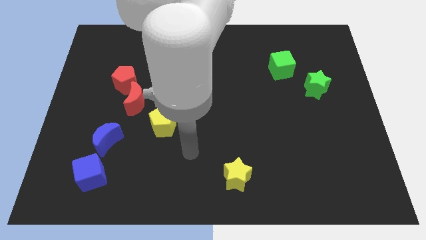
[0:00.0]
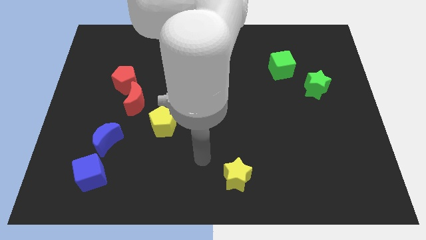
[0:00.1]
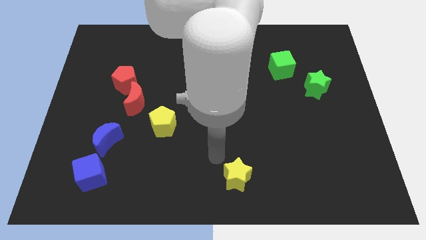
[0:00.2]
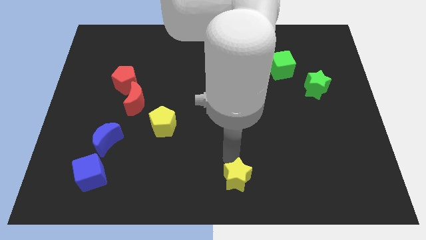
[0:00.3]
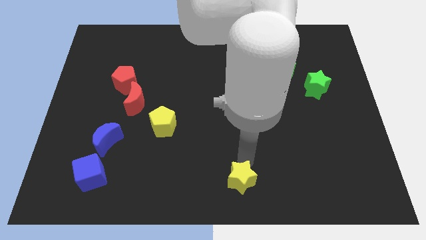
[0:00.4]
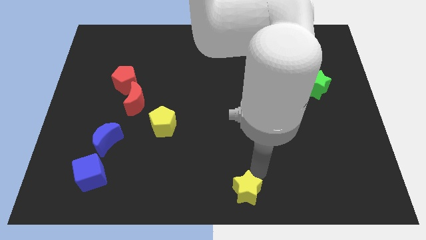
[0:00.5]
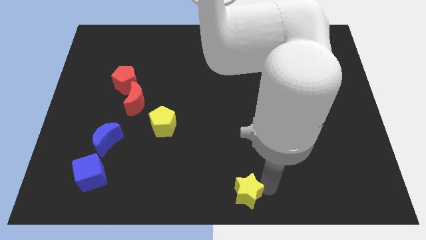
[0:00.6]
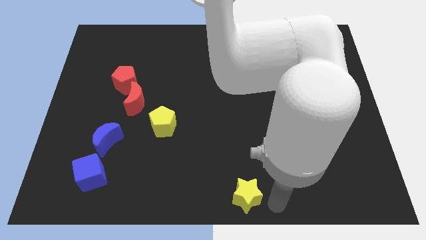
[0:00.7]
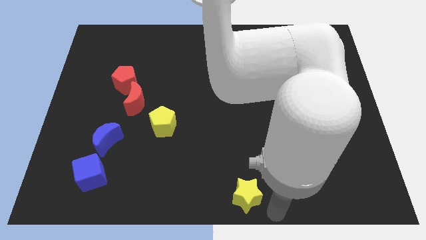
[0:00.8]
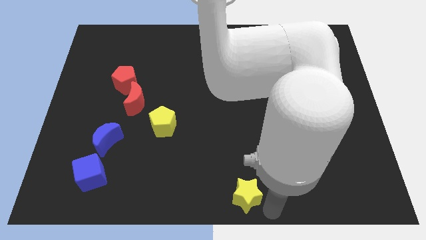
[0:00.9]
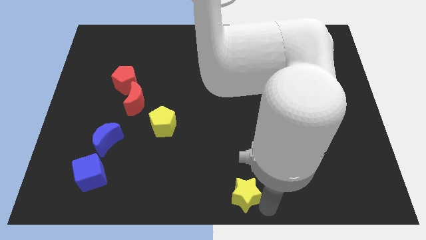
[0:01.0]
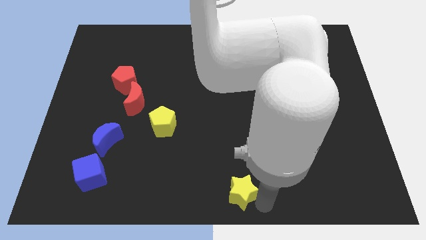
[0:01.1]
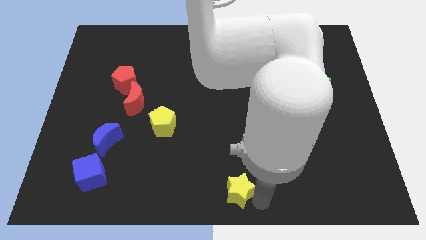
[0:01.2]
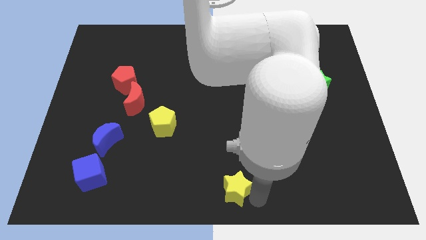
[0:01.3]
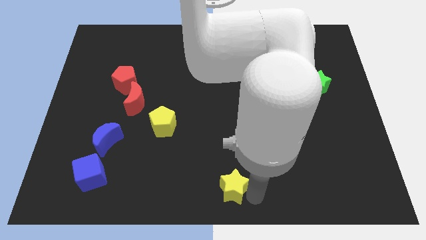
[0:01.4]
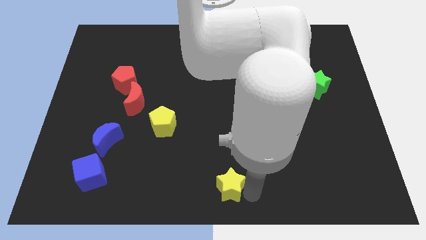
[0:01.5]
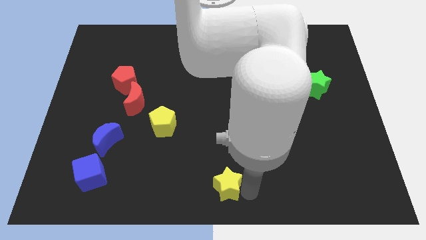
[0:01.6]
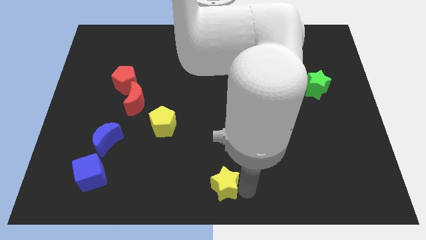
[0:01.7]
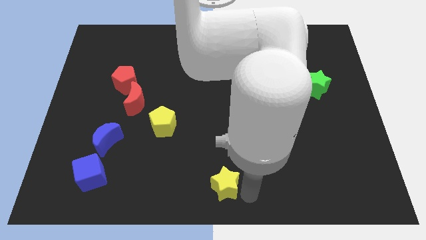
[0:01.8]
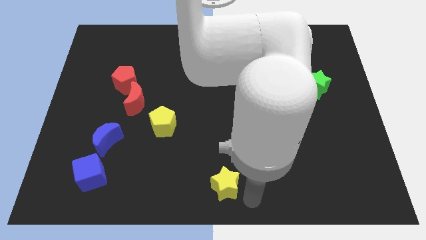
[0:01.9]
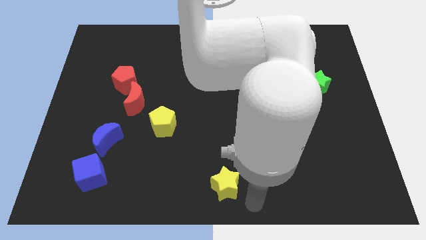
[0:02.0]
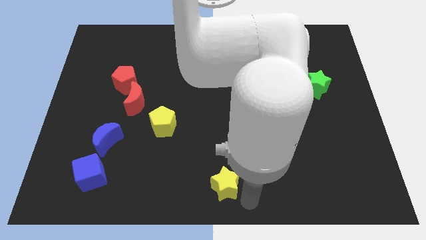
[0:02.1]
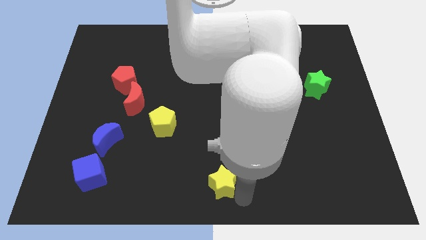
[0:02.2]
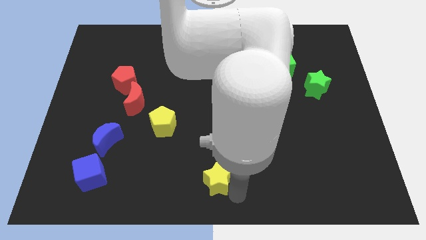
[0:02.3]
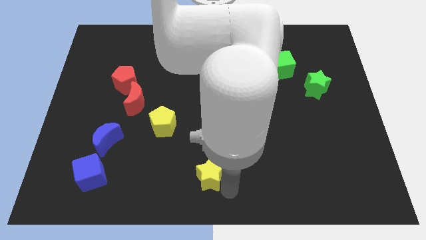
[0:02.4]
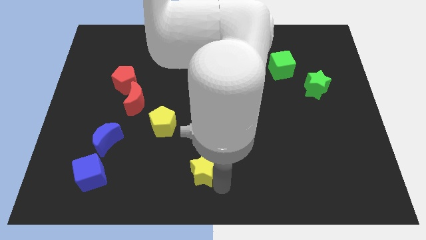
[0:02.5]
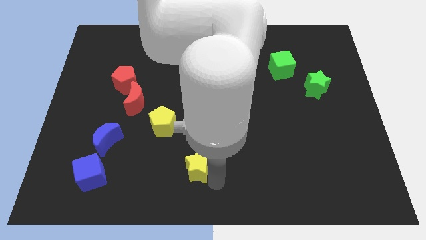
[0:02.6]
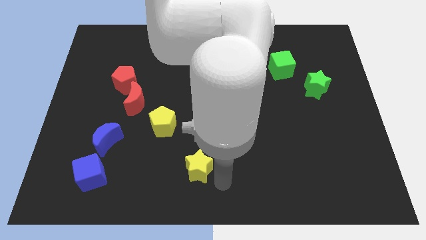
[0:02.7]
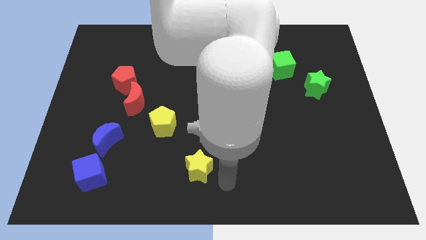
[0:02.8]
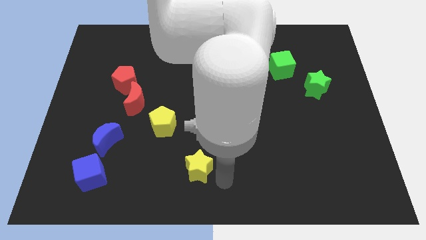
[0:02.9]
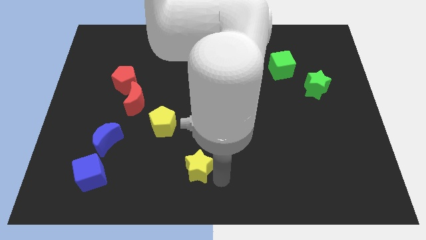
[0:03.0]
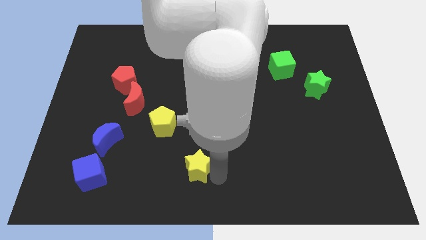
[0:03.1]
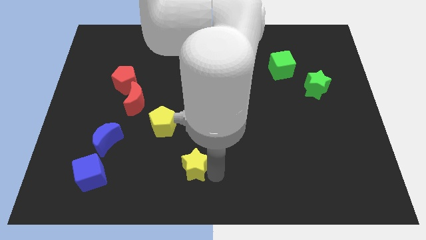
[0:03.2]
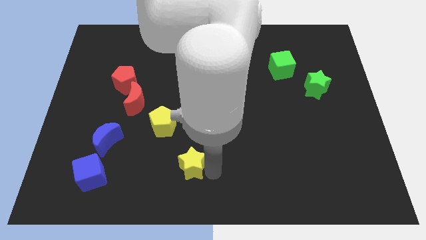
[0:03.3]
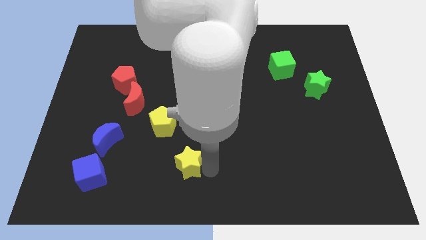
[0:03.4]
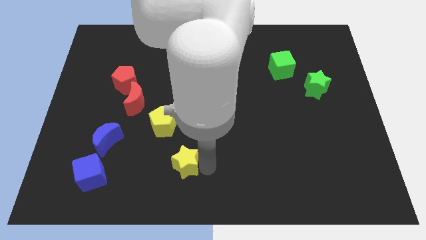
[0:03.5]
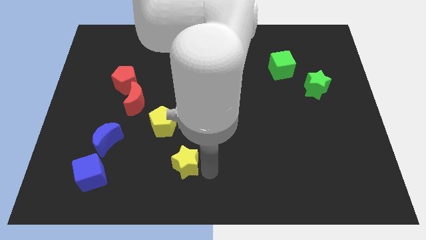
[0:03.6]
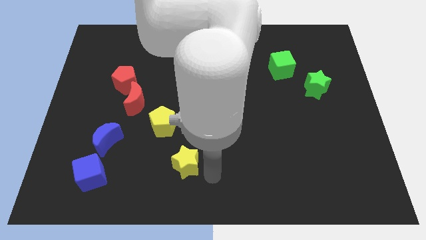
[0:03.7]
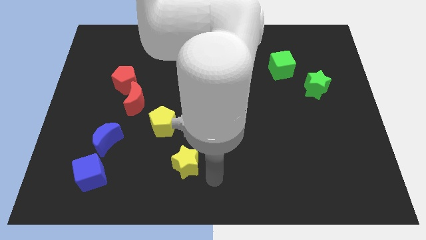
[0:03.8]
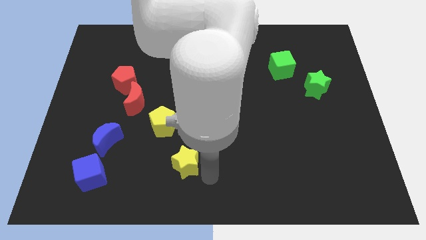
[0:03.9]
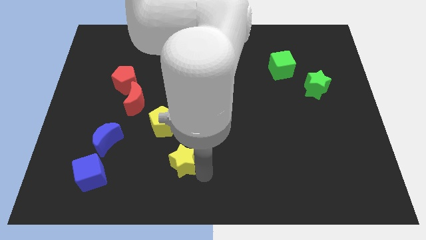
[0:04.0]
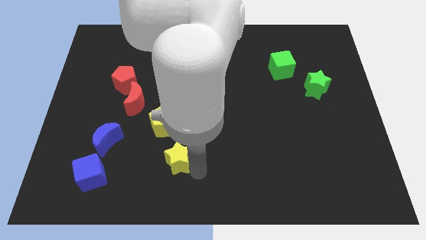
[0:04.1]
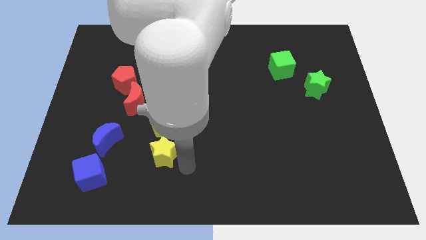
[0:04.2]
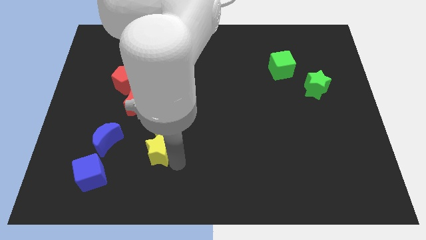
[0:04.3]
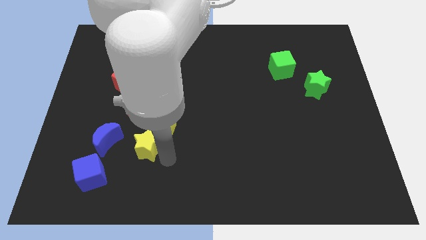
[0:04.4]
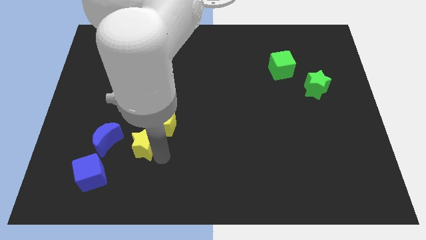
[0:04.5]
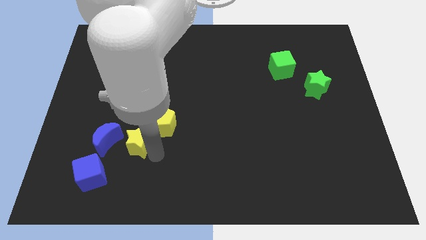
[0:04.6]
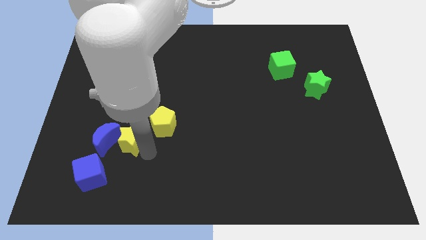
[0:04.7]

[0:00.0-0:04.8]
push the yellow star to the top right of the blue moon

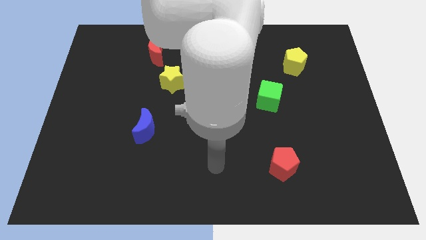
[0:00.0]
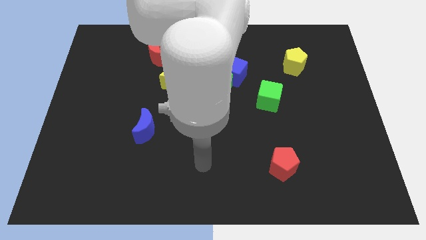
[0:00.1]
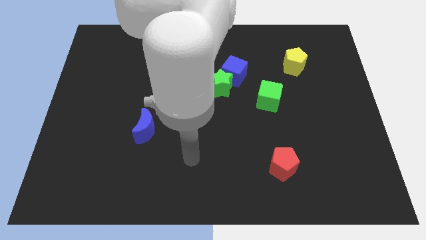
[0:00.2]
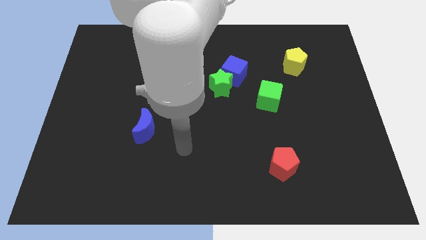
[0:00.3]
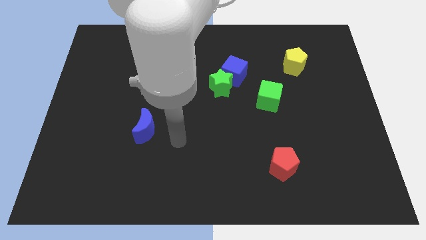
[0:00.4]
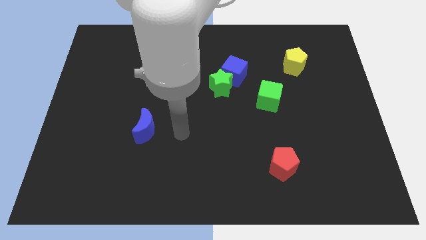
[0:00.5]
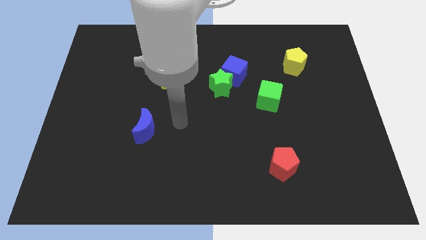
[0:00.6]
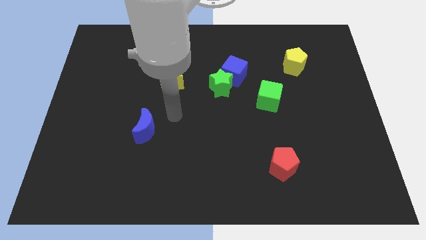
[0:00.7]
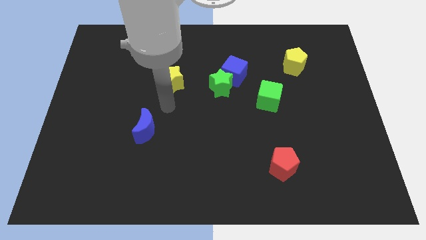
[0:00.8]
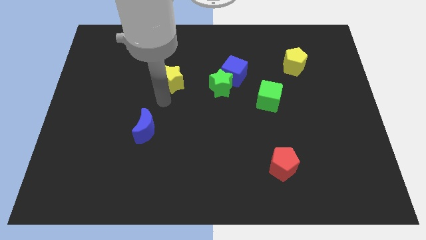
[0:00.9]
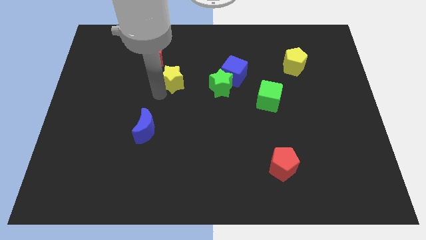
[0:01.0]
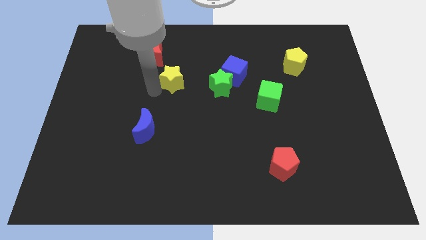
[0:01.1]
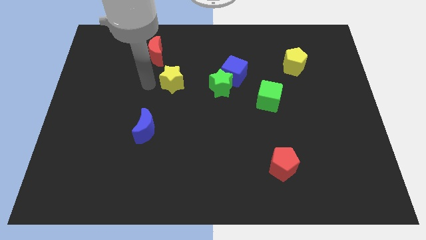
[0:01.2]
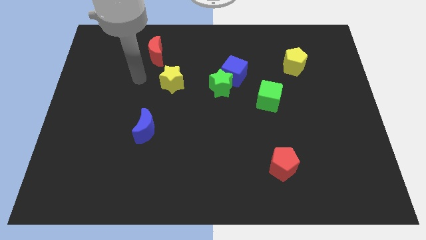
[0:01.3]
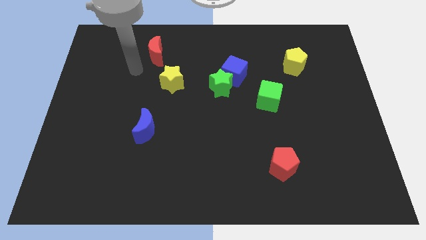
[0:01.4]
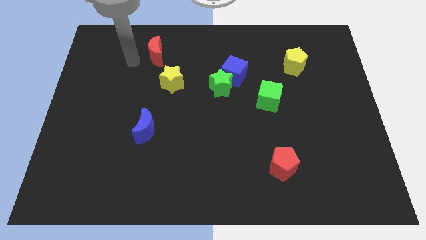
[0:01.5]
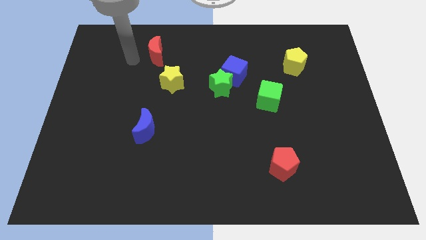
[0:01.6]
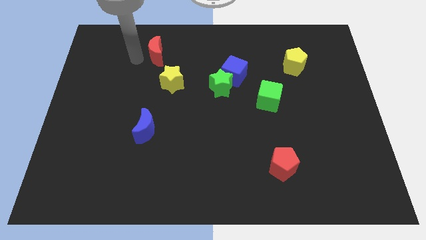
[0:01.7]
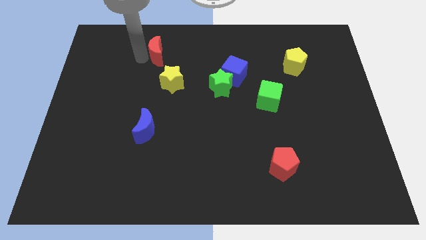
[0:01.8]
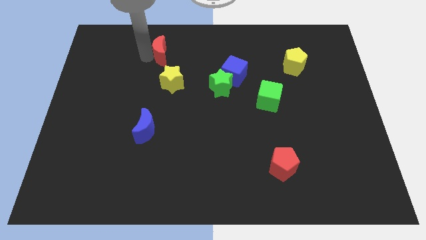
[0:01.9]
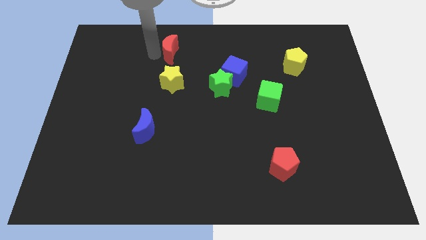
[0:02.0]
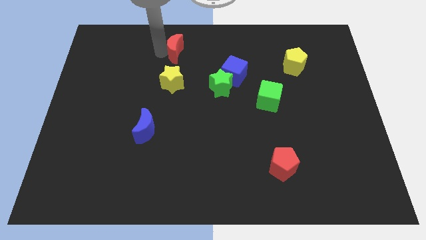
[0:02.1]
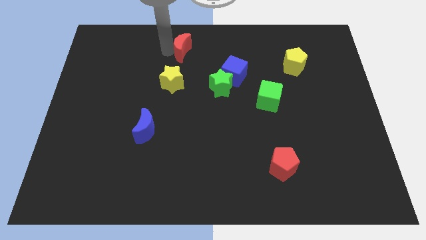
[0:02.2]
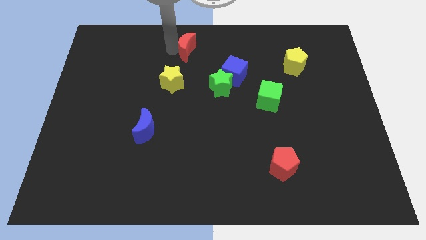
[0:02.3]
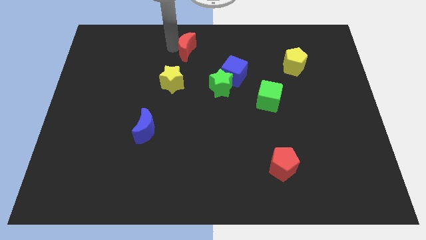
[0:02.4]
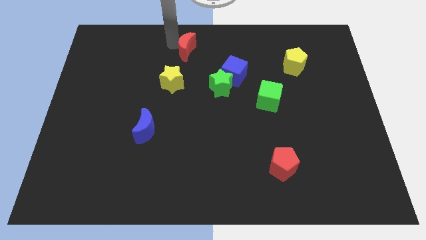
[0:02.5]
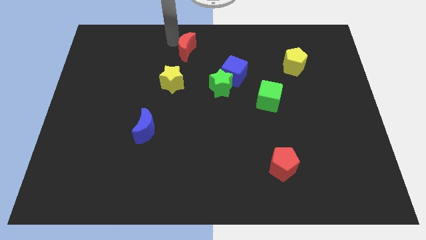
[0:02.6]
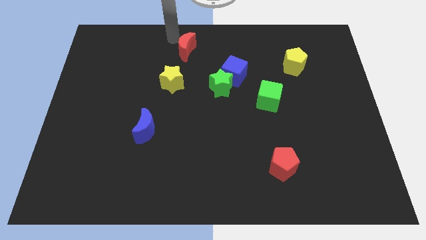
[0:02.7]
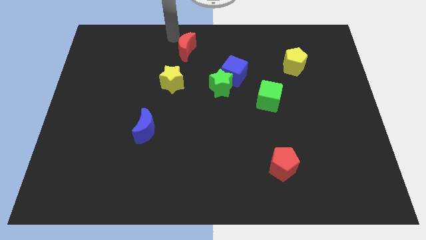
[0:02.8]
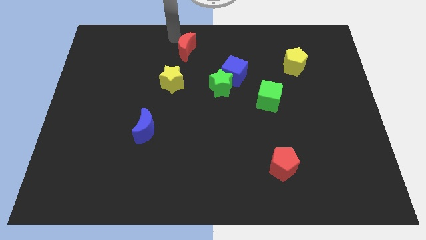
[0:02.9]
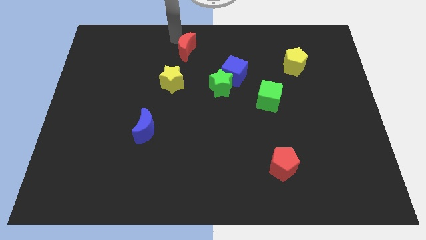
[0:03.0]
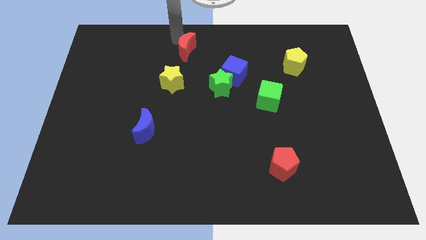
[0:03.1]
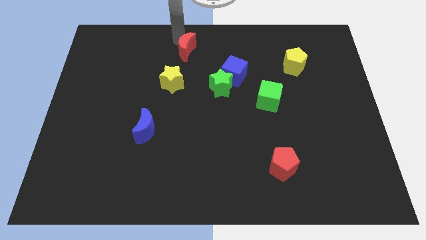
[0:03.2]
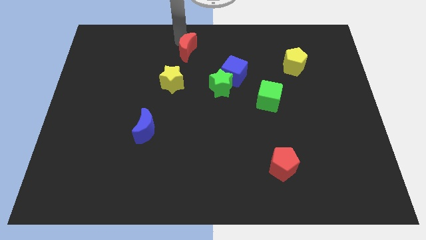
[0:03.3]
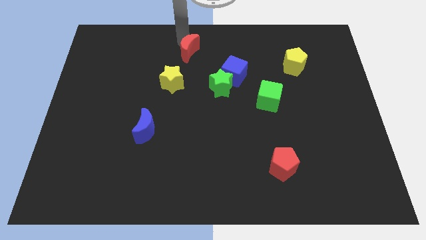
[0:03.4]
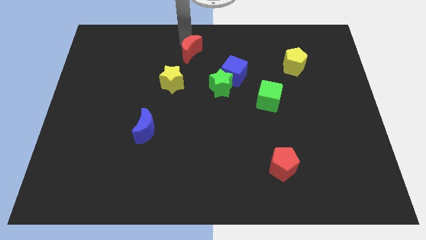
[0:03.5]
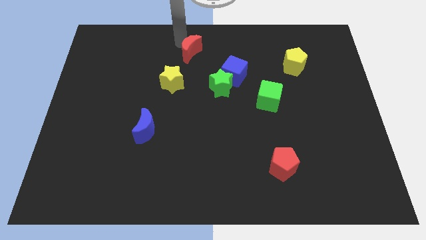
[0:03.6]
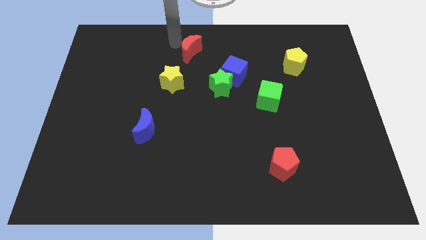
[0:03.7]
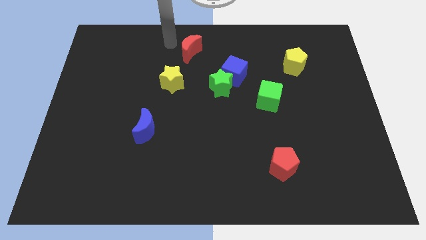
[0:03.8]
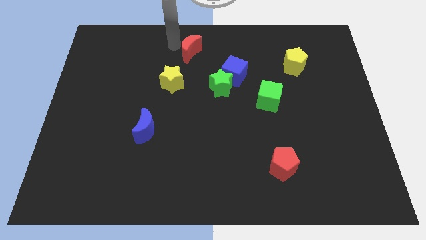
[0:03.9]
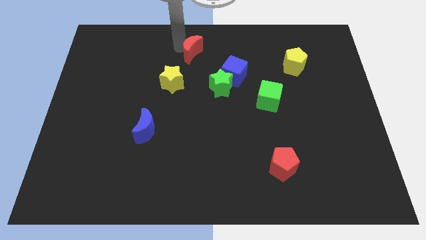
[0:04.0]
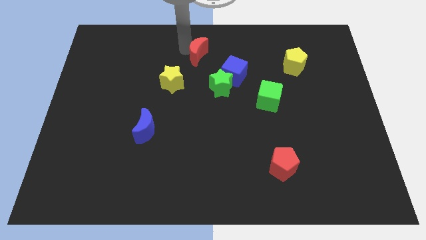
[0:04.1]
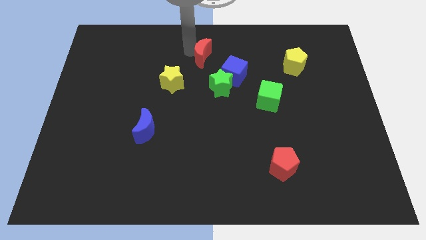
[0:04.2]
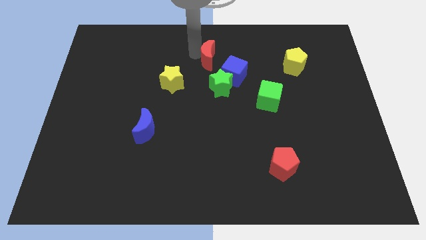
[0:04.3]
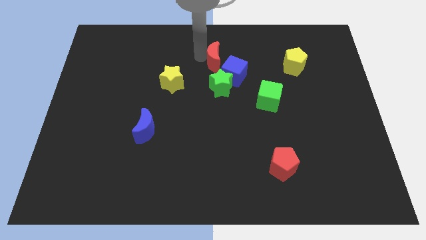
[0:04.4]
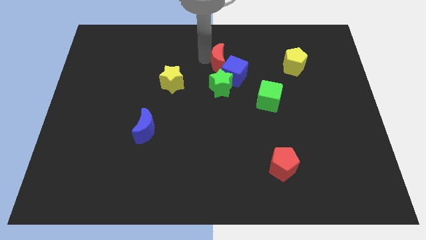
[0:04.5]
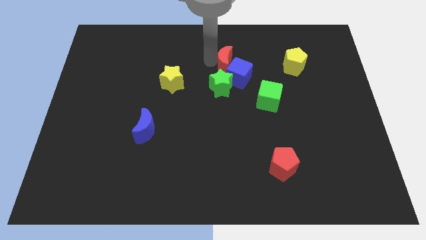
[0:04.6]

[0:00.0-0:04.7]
move the red moon diagonally up and to the right of the green star
